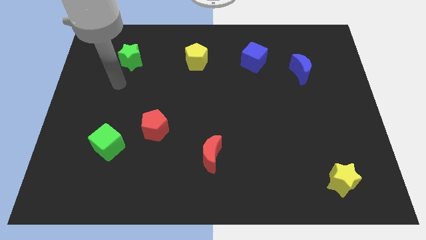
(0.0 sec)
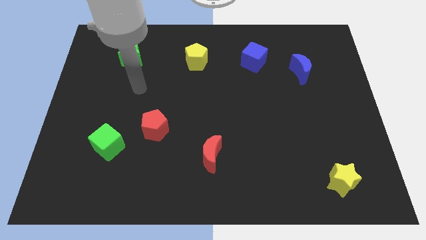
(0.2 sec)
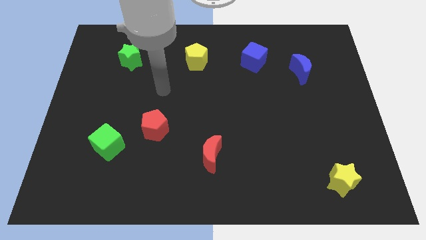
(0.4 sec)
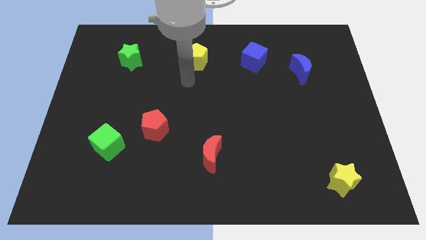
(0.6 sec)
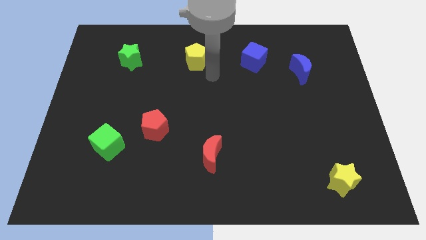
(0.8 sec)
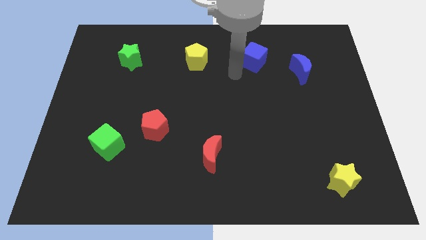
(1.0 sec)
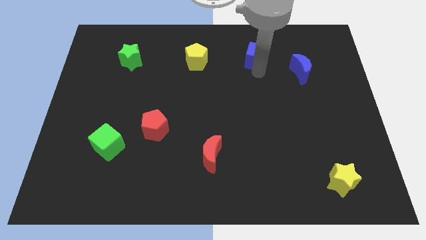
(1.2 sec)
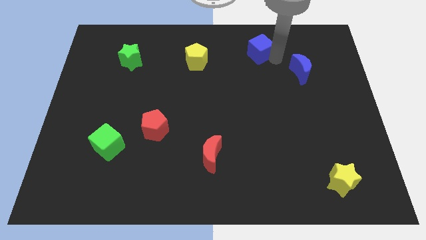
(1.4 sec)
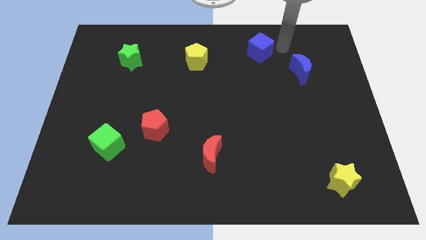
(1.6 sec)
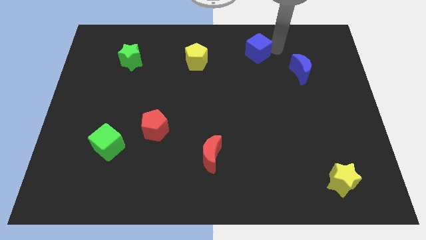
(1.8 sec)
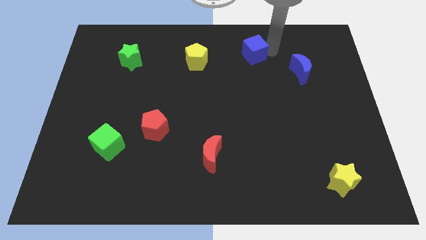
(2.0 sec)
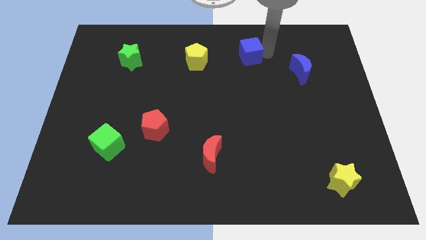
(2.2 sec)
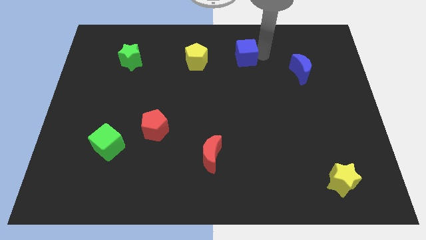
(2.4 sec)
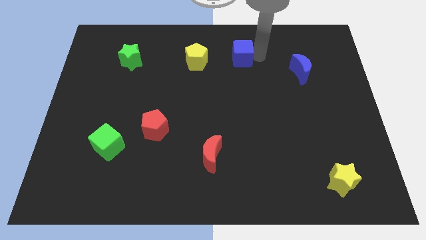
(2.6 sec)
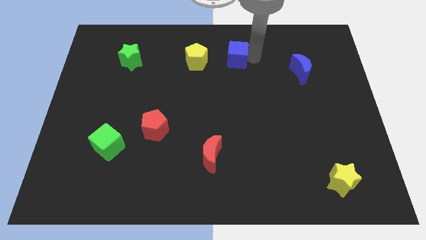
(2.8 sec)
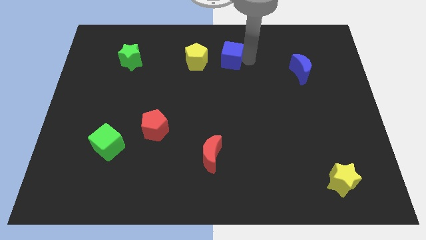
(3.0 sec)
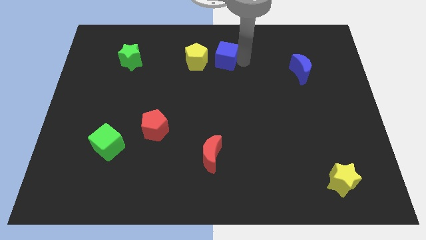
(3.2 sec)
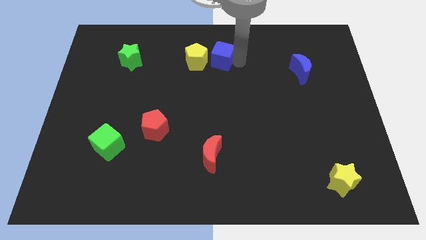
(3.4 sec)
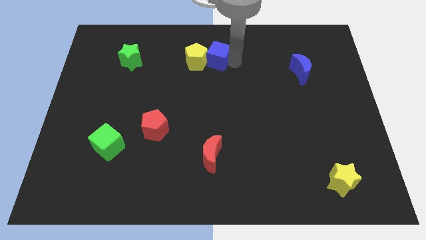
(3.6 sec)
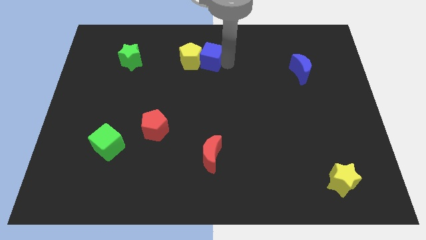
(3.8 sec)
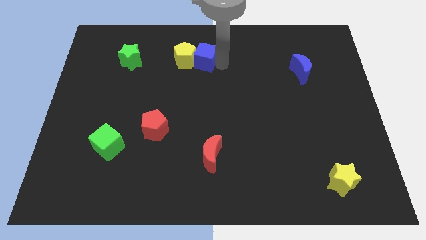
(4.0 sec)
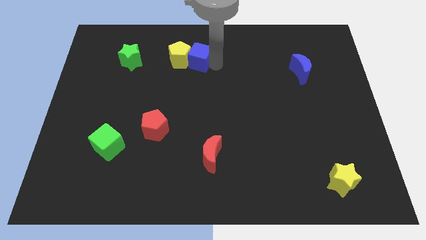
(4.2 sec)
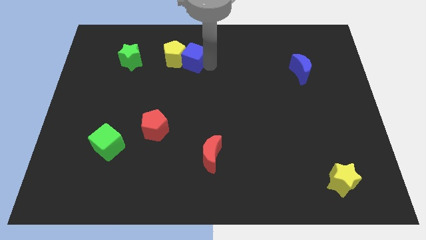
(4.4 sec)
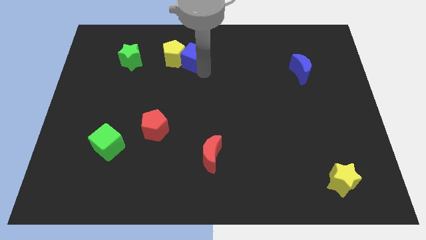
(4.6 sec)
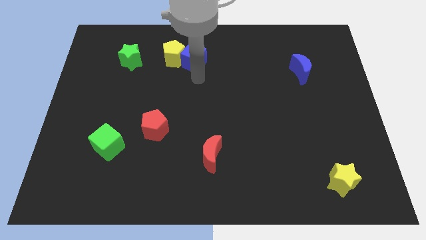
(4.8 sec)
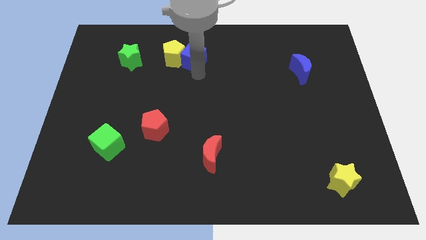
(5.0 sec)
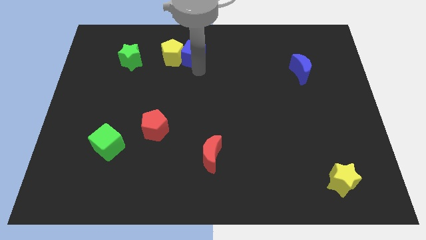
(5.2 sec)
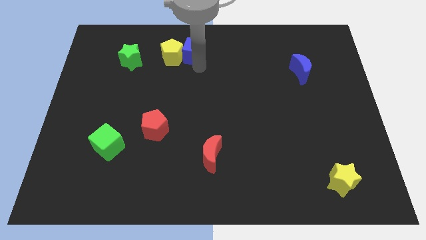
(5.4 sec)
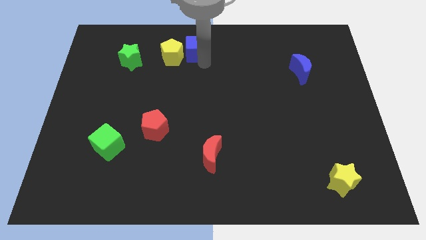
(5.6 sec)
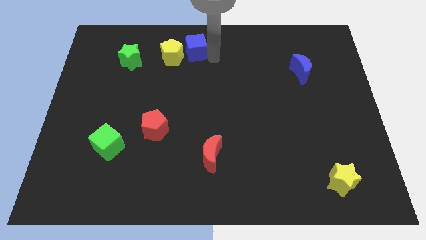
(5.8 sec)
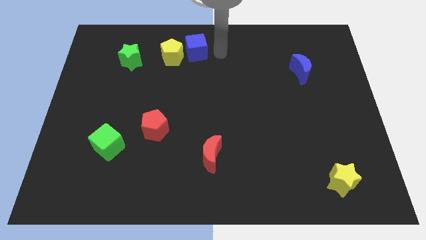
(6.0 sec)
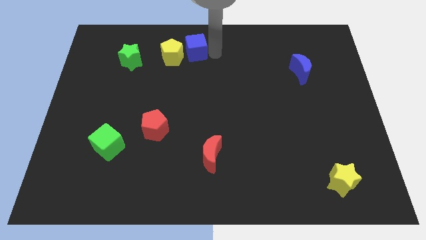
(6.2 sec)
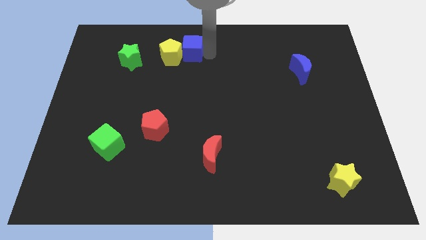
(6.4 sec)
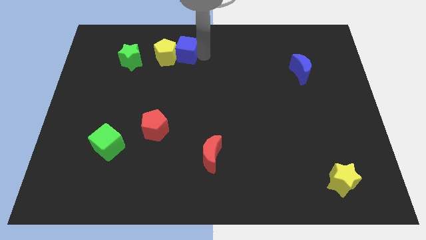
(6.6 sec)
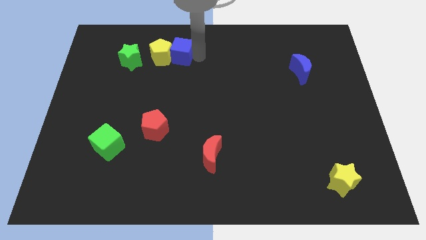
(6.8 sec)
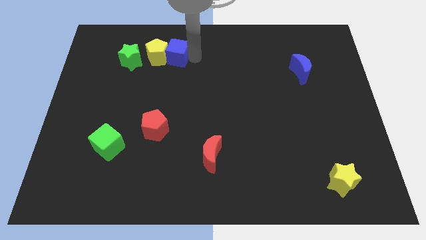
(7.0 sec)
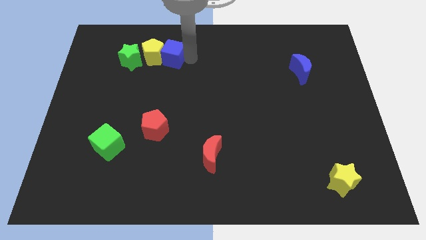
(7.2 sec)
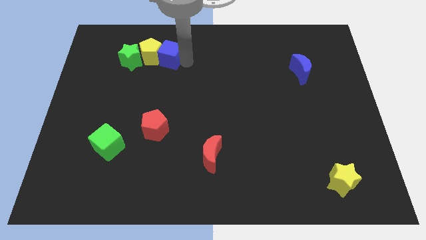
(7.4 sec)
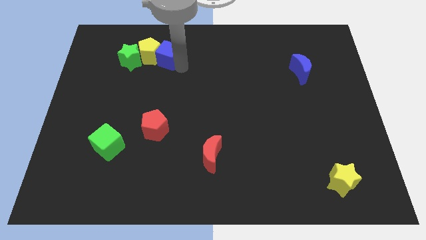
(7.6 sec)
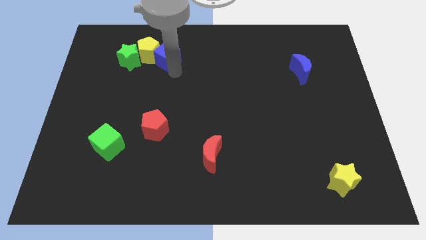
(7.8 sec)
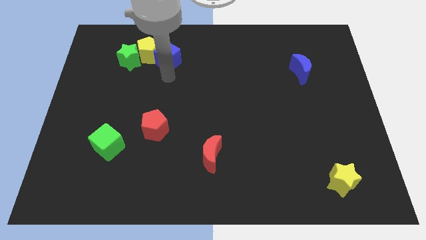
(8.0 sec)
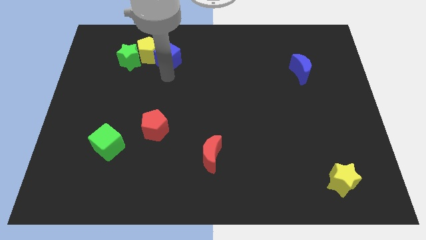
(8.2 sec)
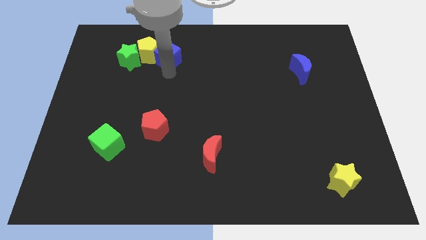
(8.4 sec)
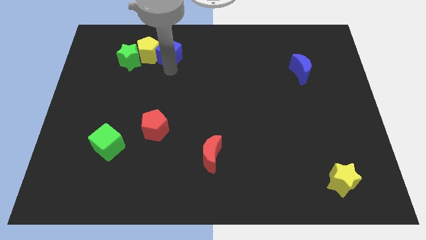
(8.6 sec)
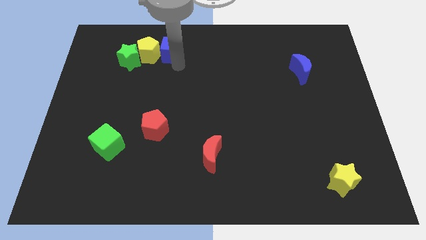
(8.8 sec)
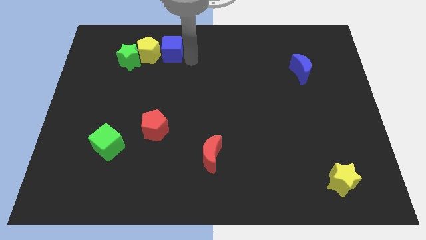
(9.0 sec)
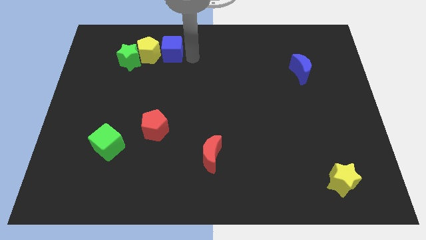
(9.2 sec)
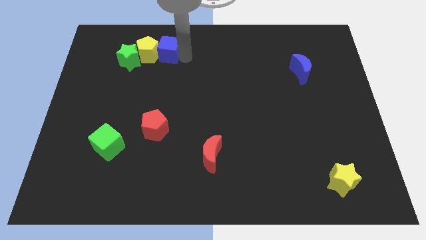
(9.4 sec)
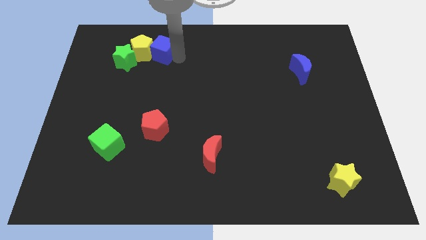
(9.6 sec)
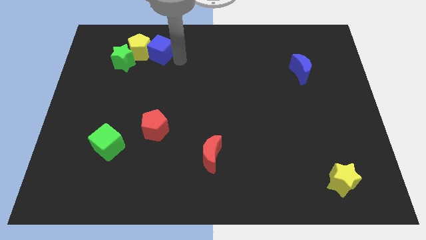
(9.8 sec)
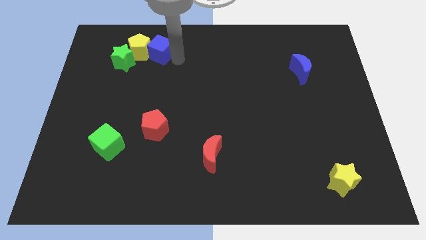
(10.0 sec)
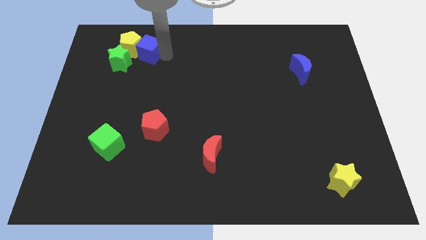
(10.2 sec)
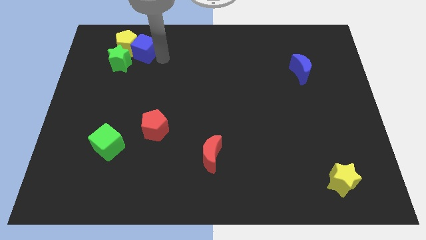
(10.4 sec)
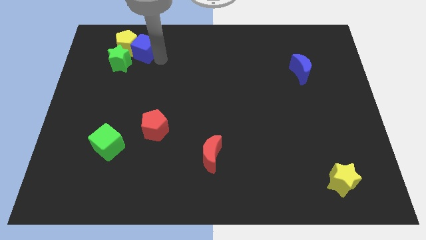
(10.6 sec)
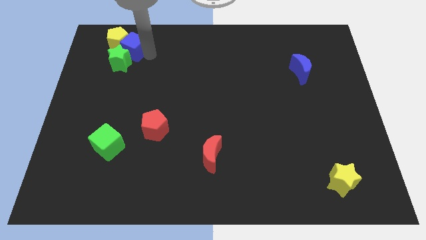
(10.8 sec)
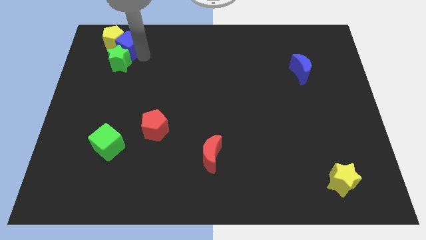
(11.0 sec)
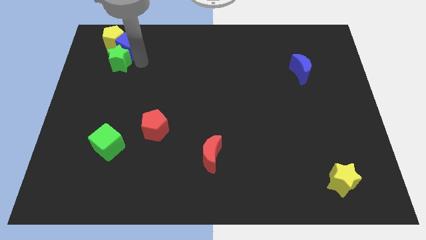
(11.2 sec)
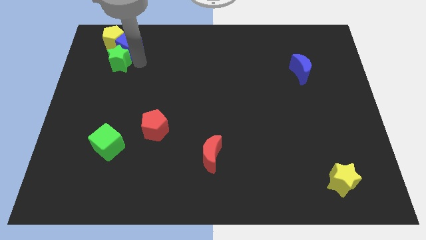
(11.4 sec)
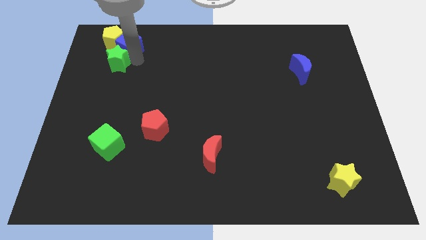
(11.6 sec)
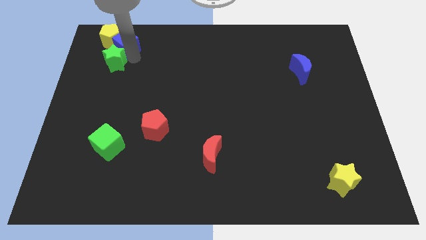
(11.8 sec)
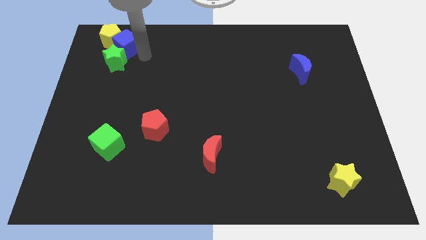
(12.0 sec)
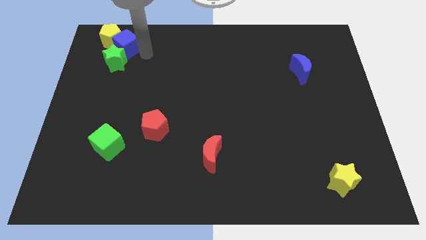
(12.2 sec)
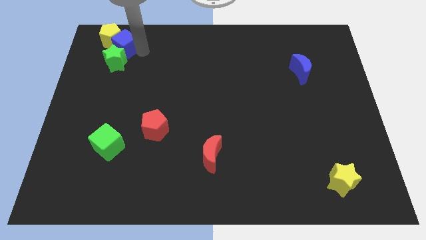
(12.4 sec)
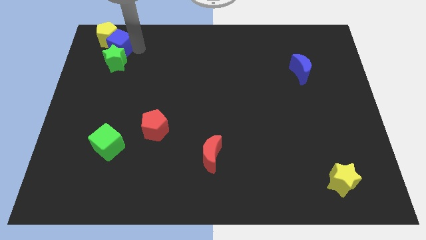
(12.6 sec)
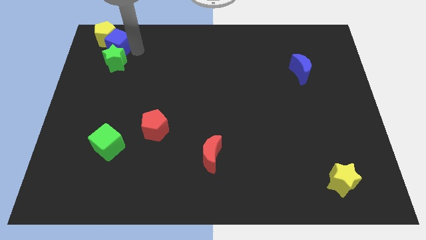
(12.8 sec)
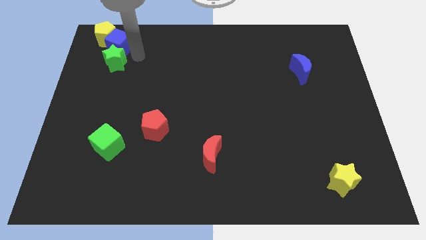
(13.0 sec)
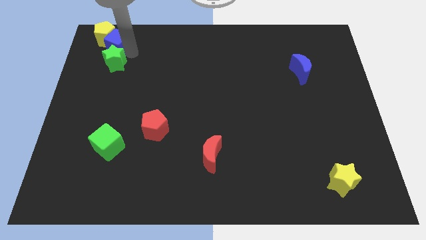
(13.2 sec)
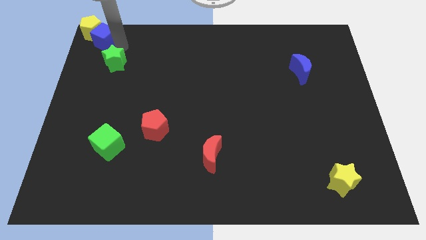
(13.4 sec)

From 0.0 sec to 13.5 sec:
move the blue cube to the top left
